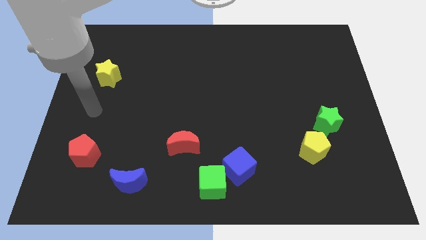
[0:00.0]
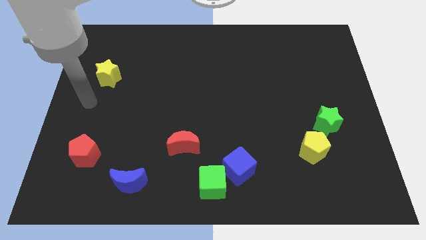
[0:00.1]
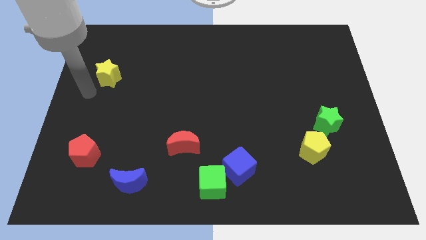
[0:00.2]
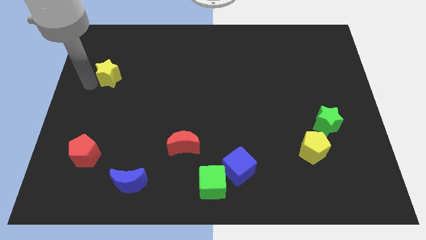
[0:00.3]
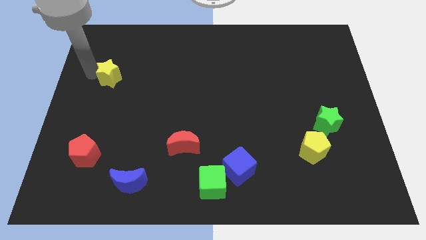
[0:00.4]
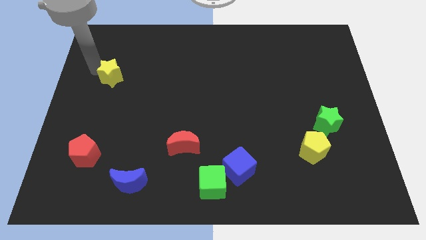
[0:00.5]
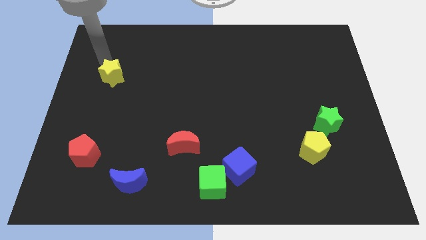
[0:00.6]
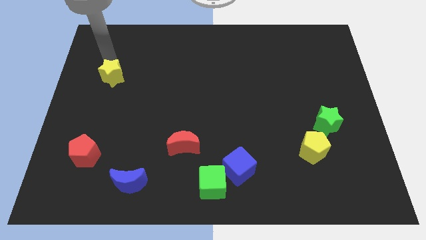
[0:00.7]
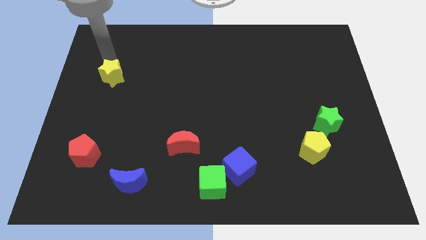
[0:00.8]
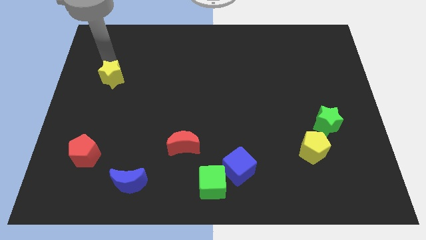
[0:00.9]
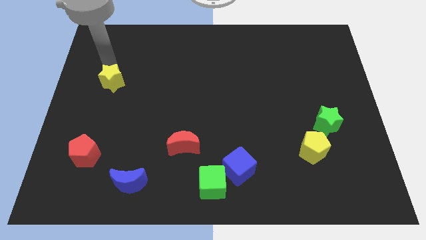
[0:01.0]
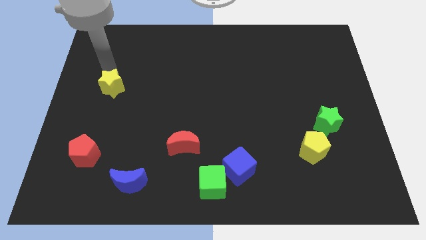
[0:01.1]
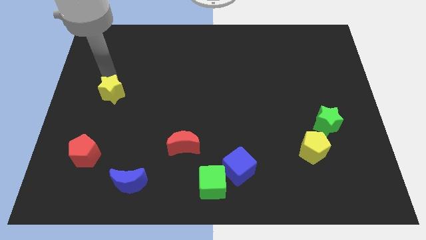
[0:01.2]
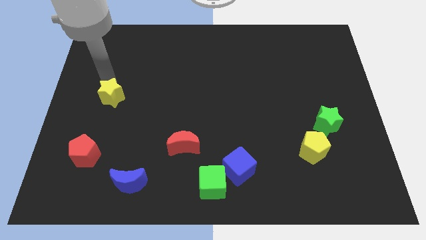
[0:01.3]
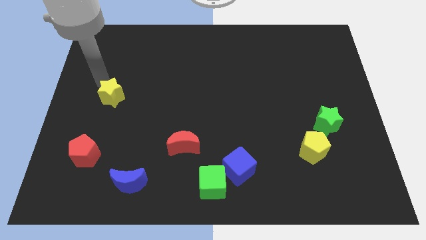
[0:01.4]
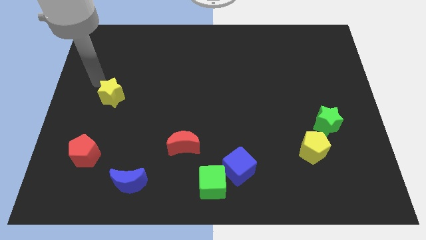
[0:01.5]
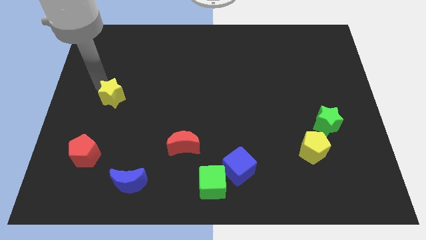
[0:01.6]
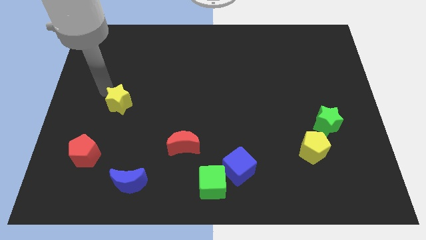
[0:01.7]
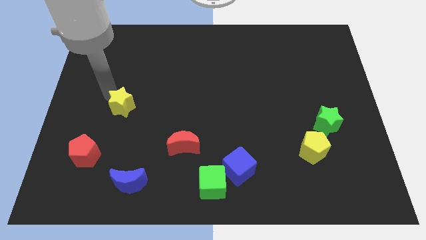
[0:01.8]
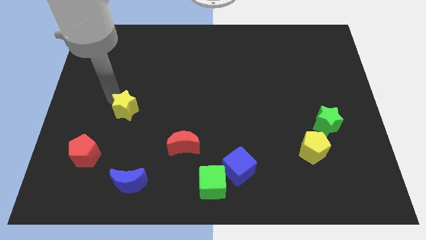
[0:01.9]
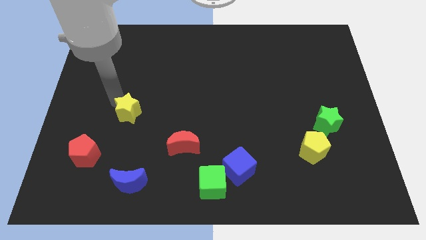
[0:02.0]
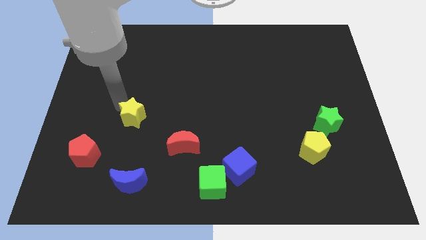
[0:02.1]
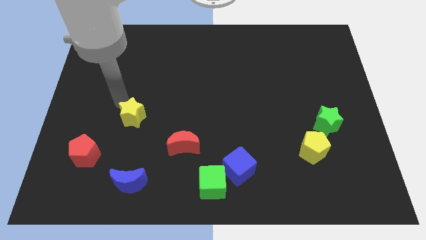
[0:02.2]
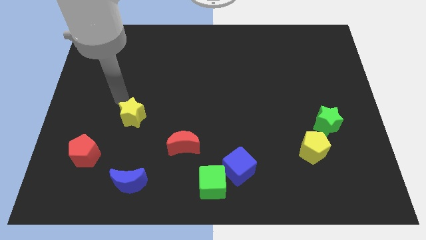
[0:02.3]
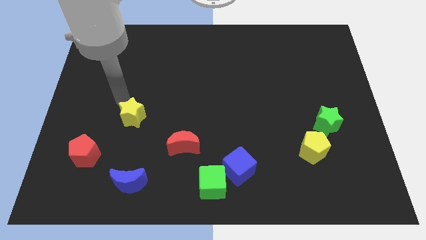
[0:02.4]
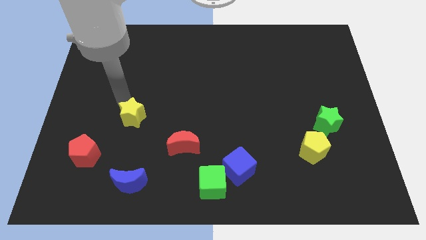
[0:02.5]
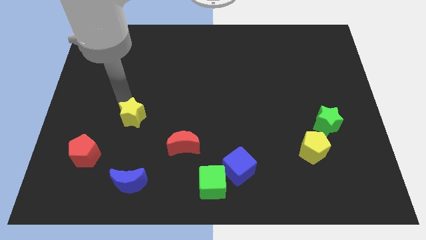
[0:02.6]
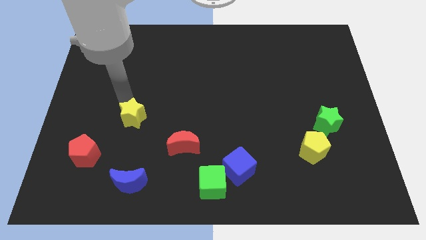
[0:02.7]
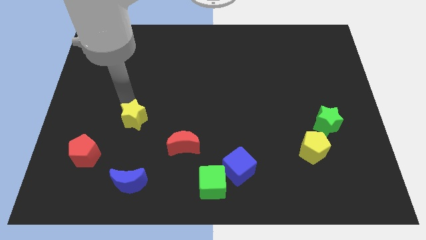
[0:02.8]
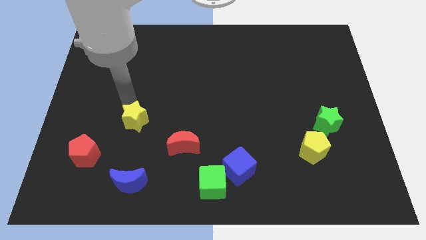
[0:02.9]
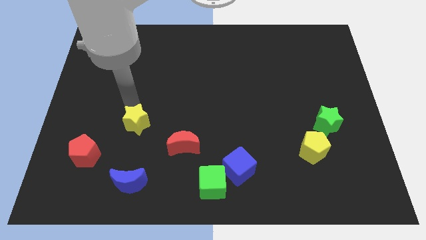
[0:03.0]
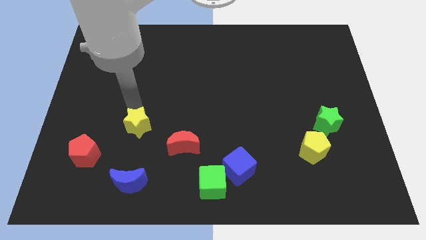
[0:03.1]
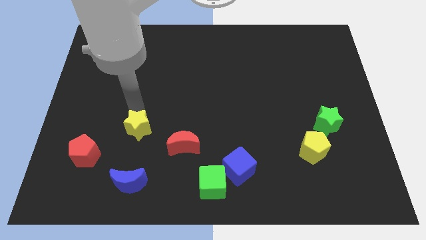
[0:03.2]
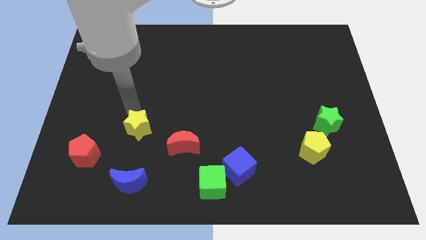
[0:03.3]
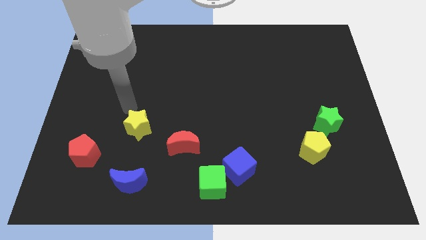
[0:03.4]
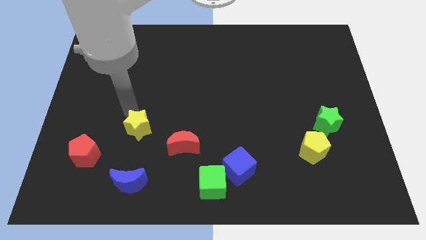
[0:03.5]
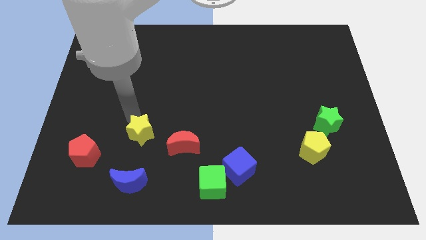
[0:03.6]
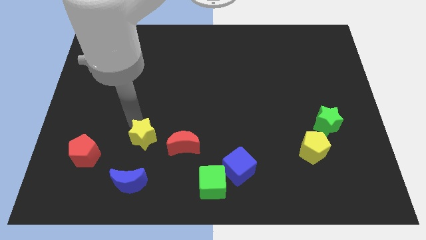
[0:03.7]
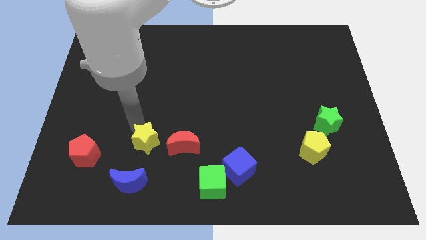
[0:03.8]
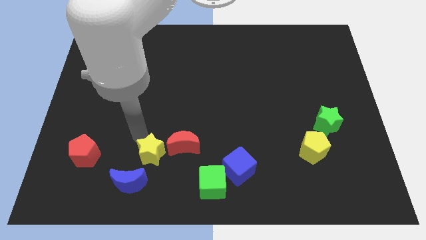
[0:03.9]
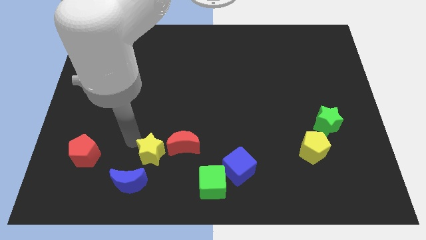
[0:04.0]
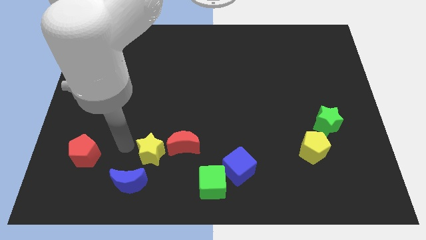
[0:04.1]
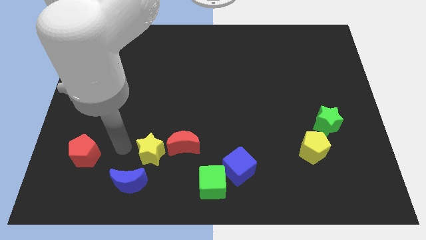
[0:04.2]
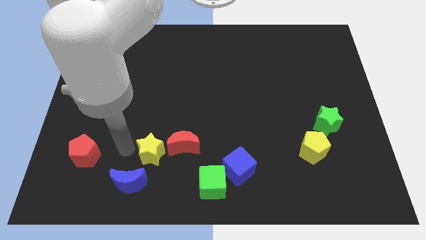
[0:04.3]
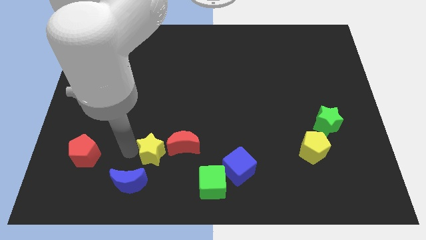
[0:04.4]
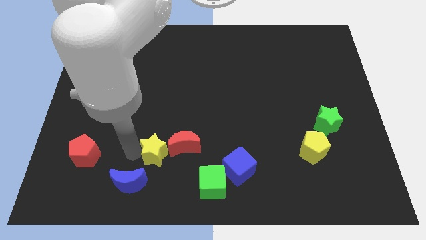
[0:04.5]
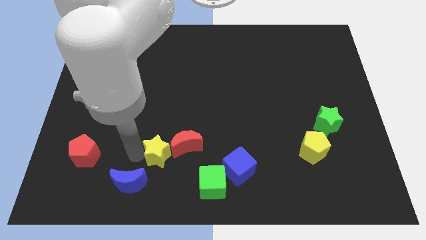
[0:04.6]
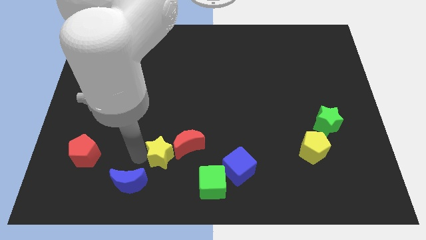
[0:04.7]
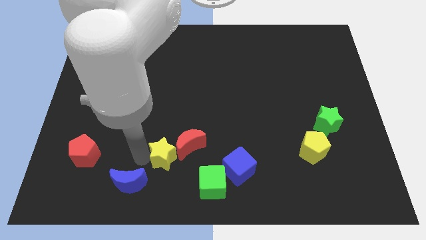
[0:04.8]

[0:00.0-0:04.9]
move the yellow star diagonally up and to the left of the green cube

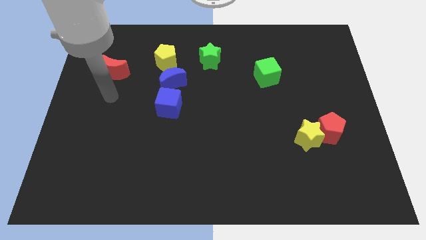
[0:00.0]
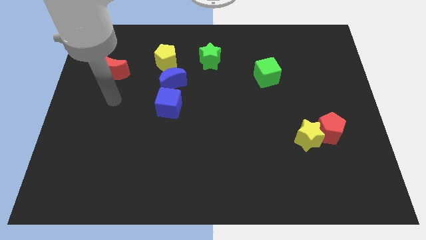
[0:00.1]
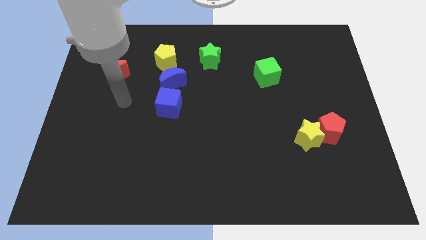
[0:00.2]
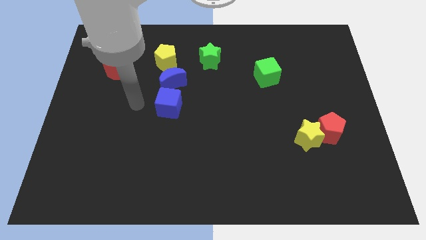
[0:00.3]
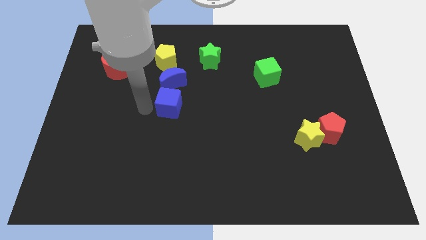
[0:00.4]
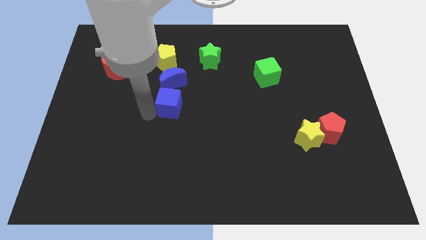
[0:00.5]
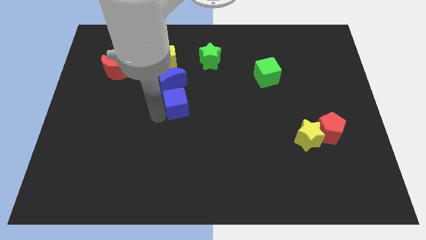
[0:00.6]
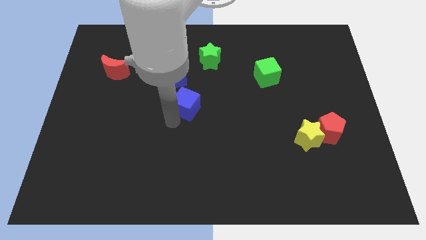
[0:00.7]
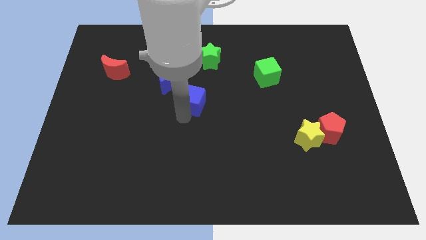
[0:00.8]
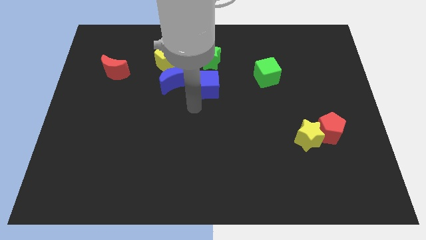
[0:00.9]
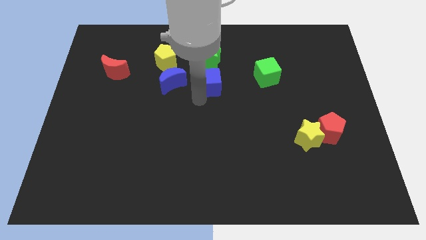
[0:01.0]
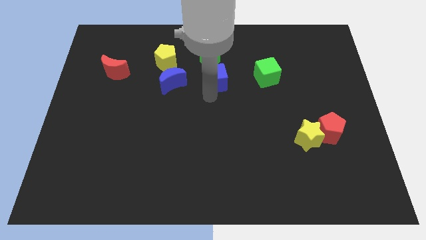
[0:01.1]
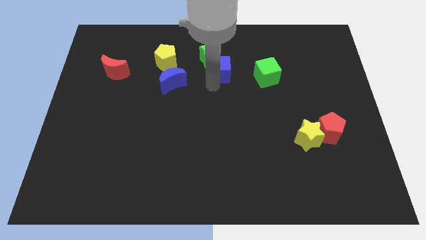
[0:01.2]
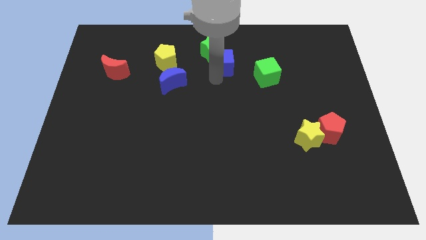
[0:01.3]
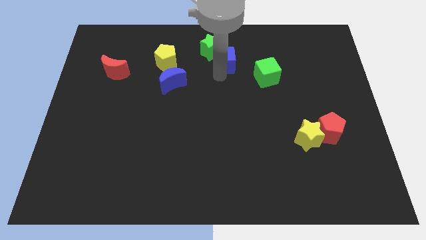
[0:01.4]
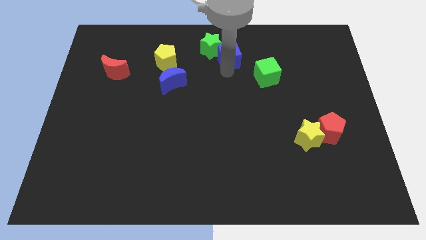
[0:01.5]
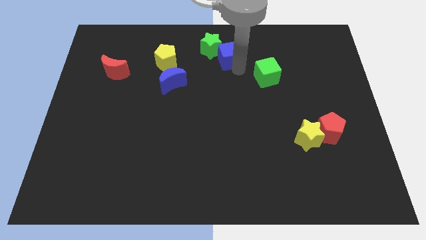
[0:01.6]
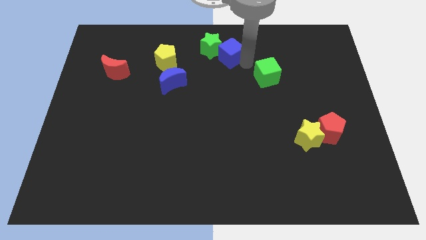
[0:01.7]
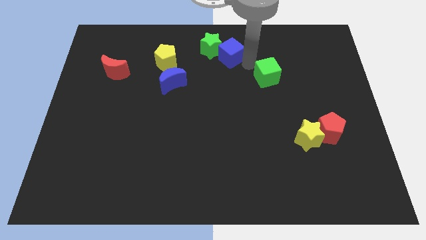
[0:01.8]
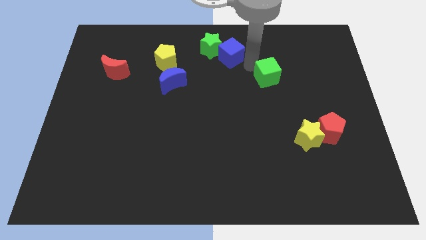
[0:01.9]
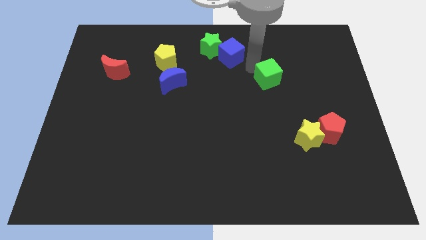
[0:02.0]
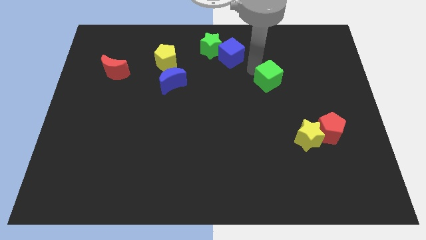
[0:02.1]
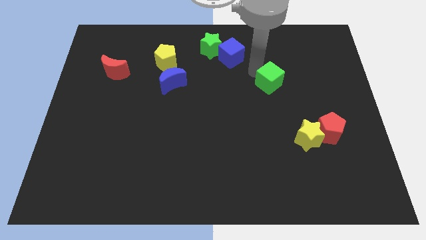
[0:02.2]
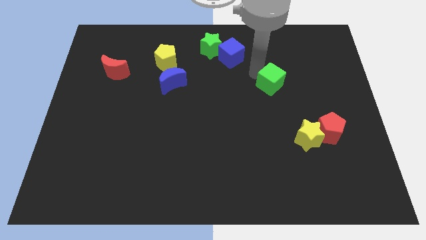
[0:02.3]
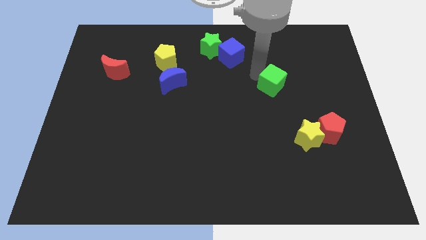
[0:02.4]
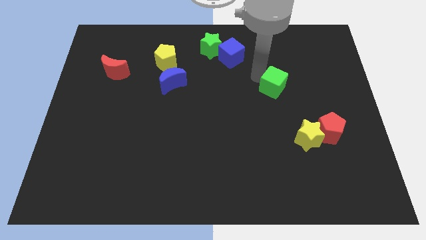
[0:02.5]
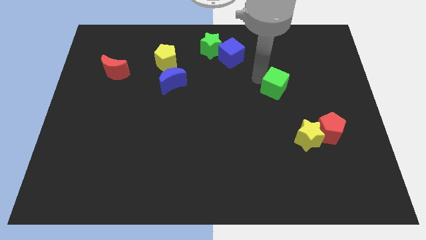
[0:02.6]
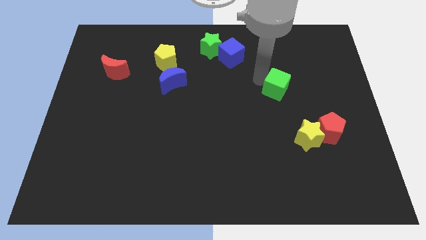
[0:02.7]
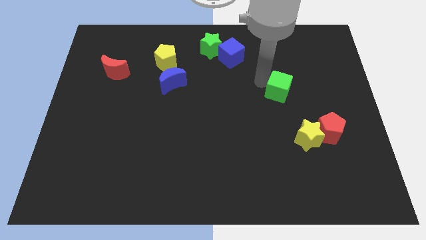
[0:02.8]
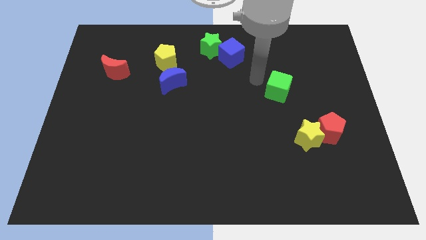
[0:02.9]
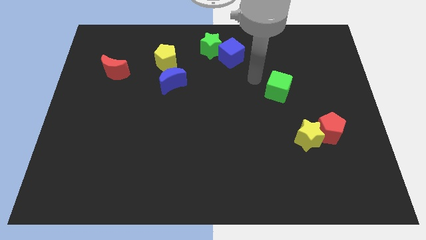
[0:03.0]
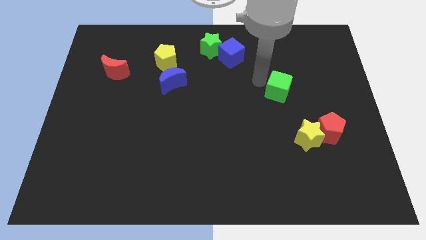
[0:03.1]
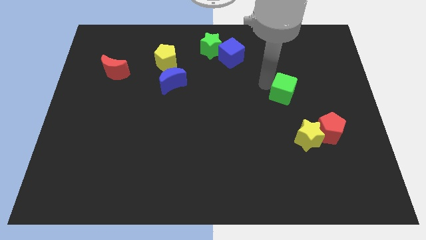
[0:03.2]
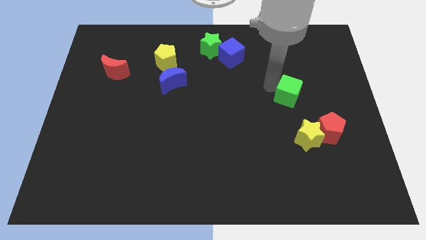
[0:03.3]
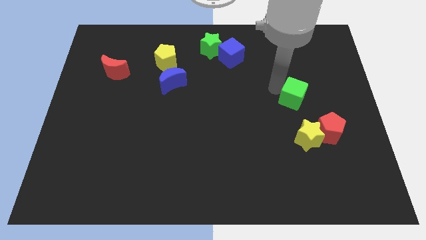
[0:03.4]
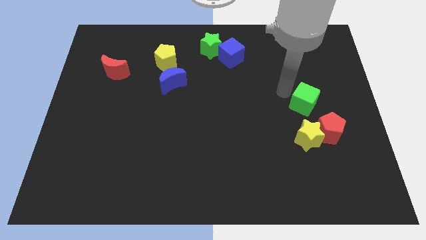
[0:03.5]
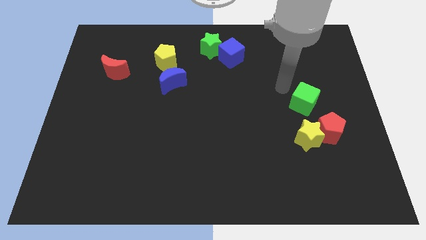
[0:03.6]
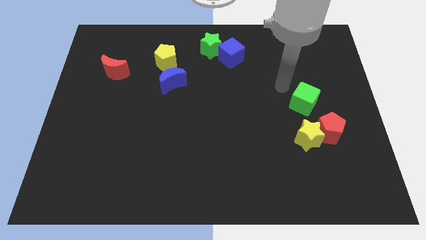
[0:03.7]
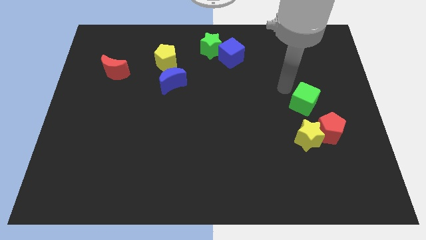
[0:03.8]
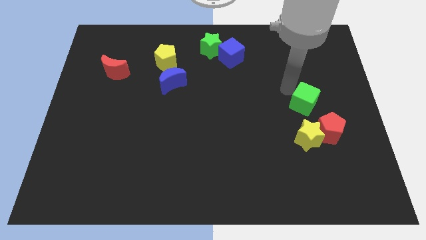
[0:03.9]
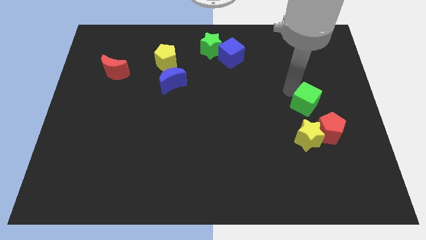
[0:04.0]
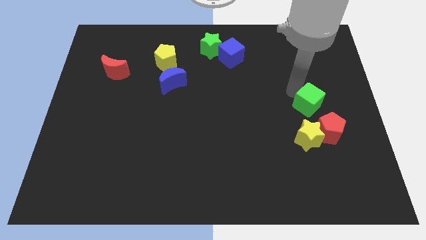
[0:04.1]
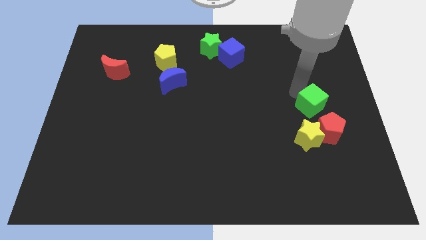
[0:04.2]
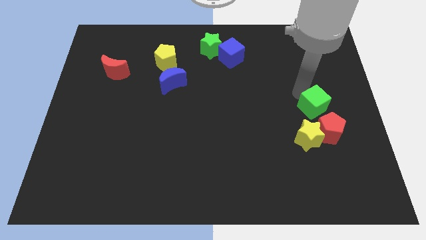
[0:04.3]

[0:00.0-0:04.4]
push the green cube to the top right of the yellow star
